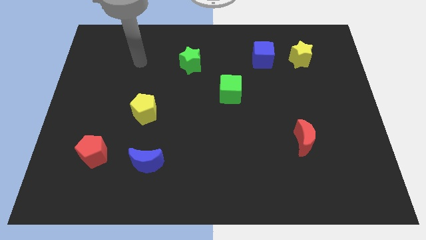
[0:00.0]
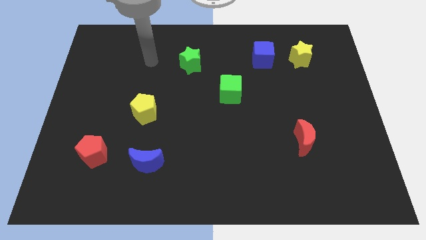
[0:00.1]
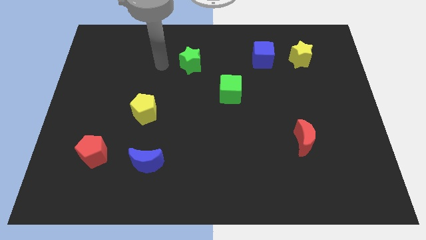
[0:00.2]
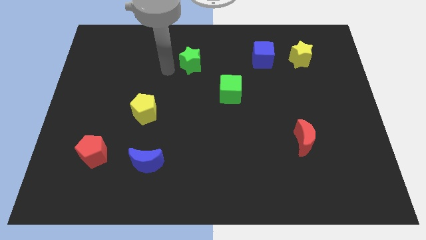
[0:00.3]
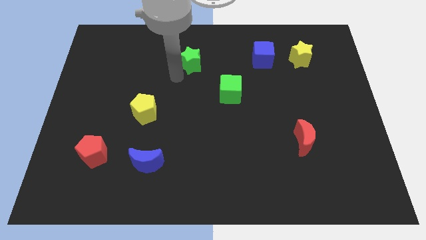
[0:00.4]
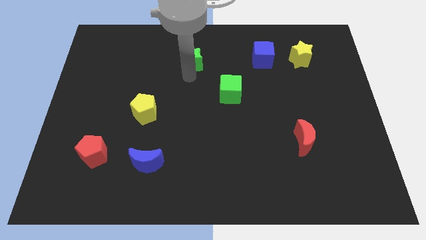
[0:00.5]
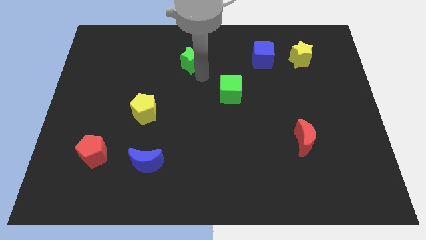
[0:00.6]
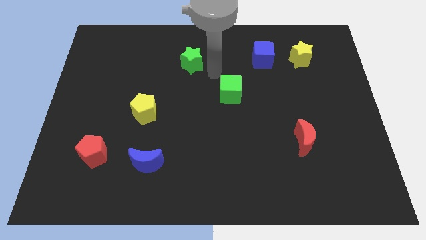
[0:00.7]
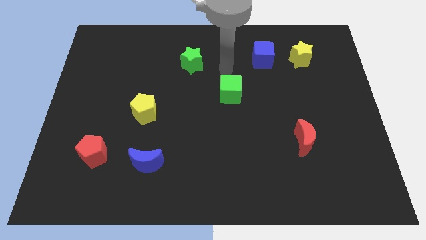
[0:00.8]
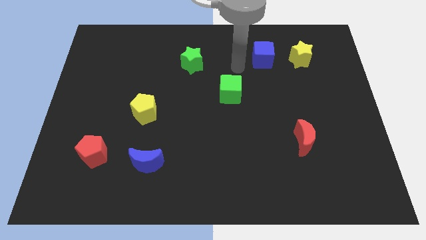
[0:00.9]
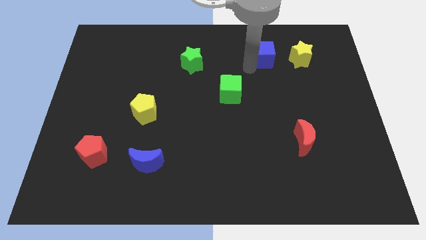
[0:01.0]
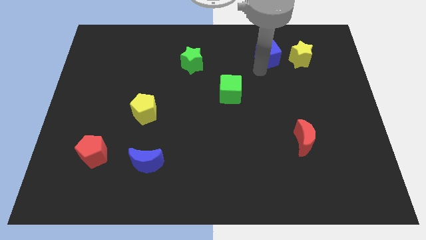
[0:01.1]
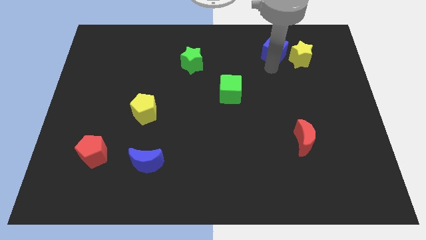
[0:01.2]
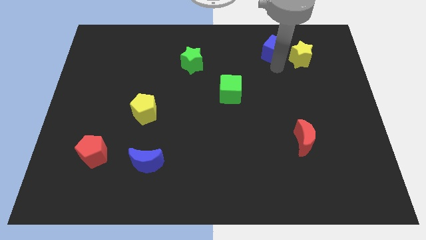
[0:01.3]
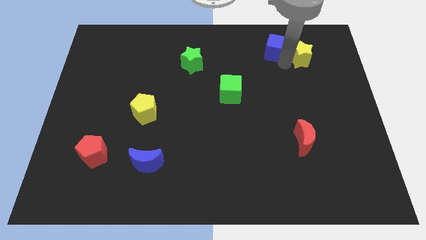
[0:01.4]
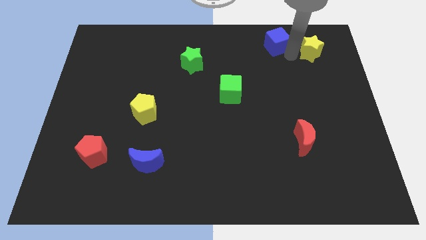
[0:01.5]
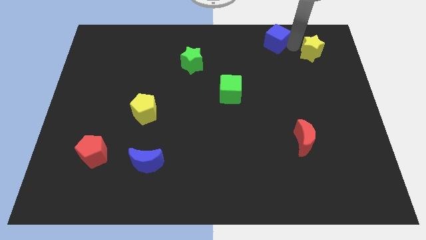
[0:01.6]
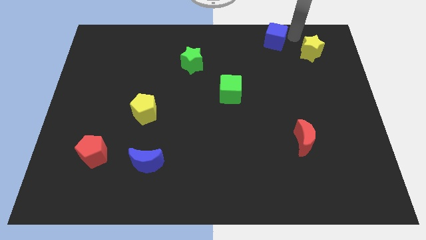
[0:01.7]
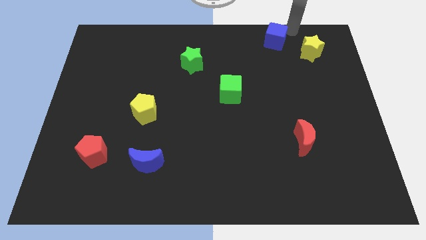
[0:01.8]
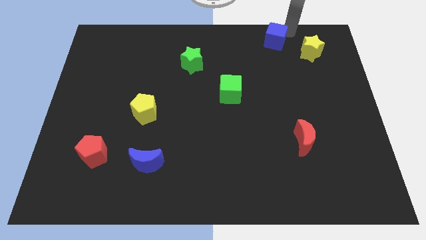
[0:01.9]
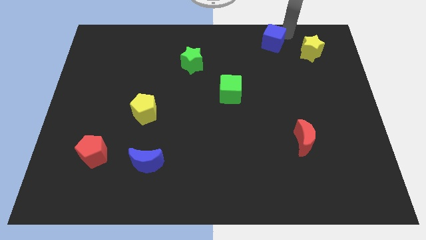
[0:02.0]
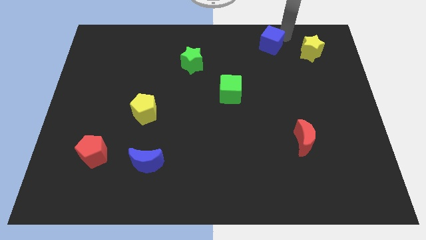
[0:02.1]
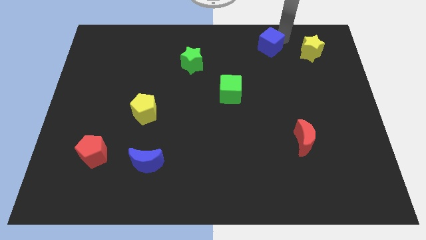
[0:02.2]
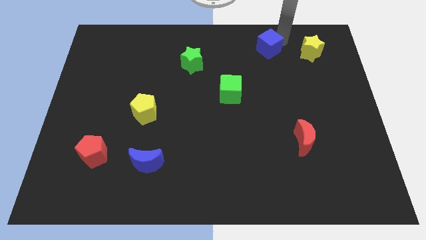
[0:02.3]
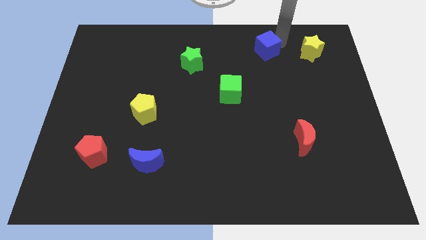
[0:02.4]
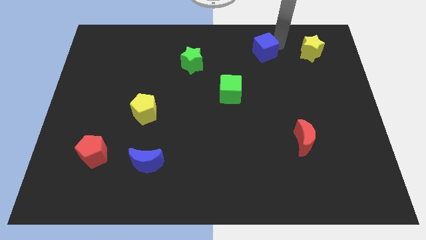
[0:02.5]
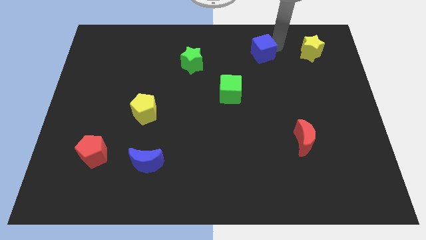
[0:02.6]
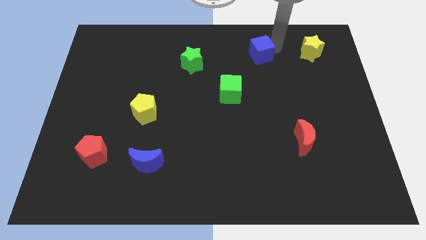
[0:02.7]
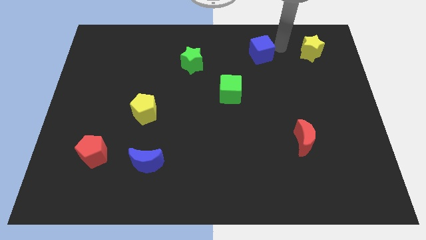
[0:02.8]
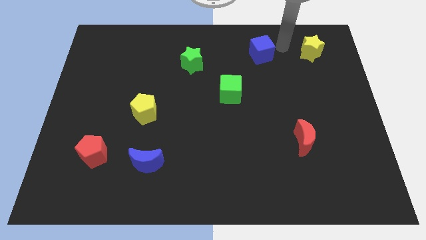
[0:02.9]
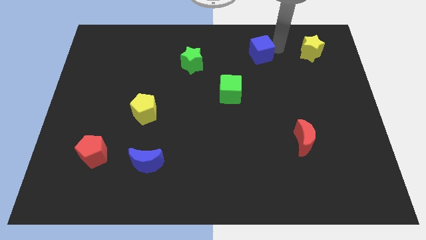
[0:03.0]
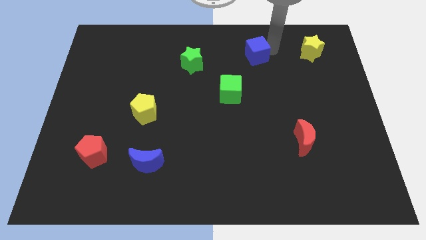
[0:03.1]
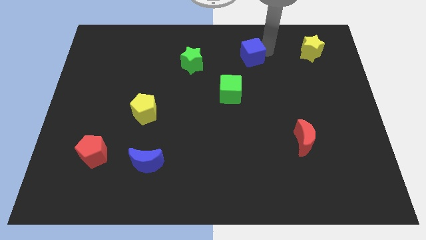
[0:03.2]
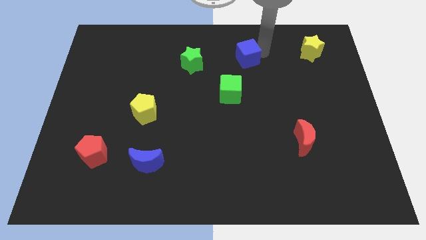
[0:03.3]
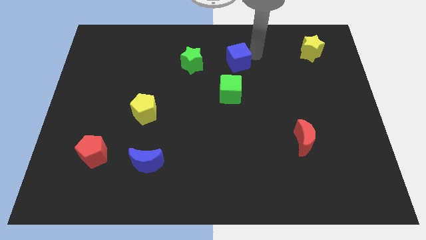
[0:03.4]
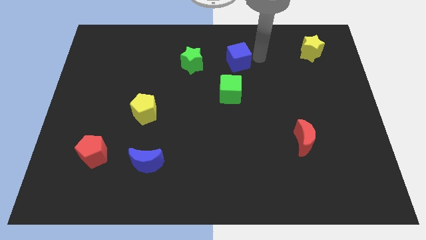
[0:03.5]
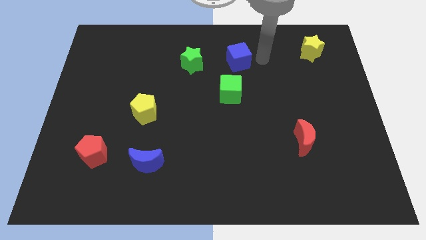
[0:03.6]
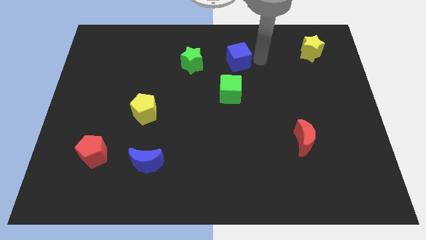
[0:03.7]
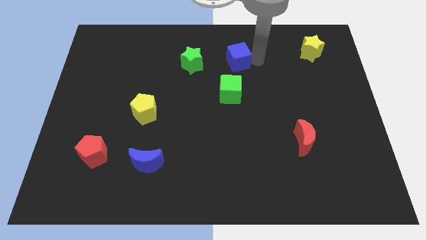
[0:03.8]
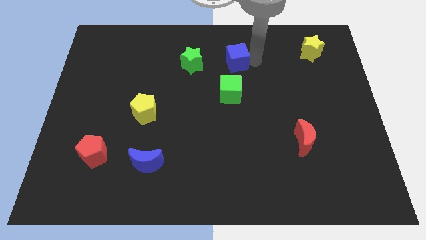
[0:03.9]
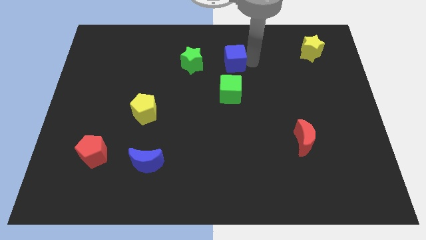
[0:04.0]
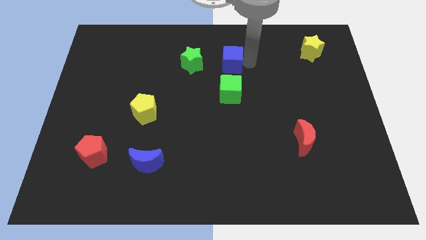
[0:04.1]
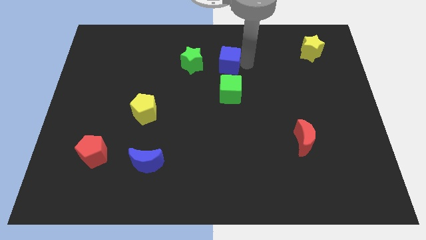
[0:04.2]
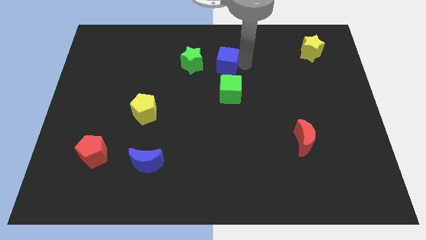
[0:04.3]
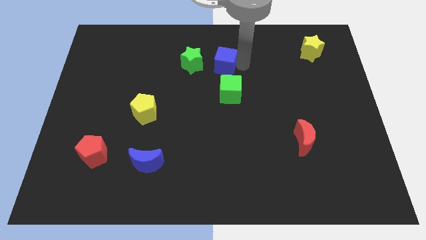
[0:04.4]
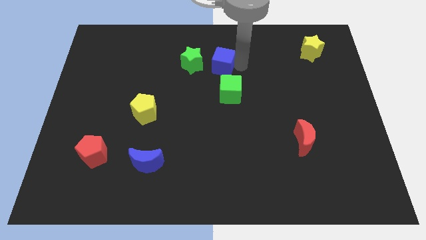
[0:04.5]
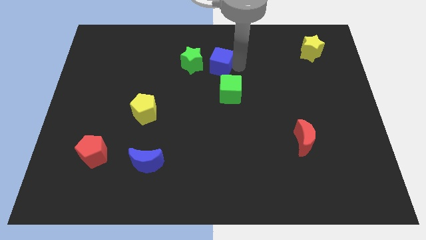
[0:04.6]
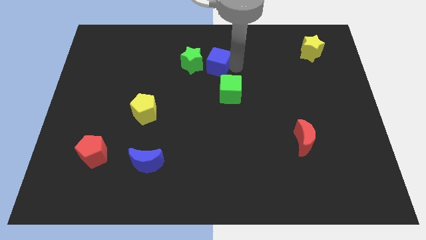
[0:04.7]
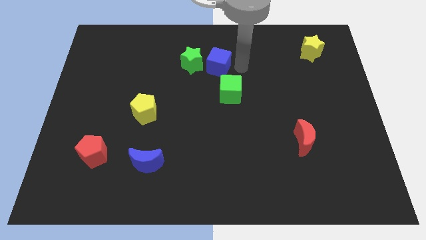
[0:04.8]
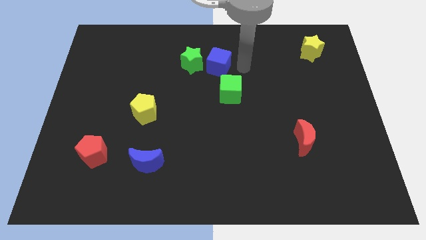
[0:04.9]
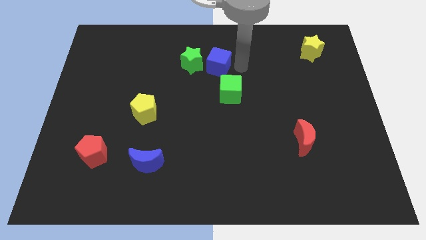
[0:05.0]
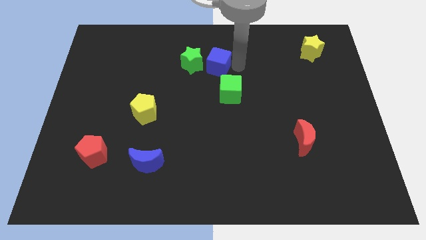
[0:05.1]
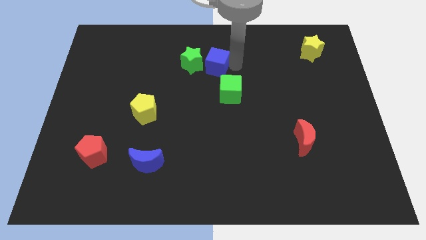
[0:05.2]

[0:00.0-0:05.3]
push the blue cube towards the green star

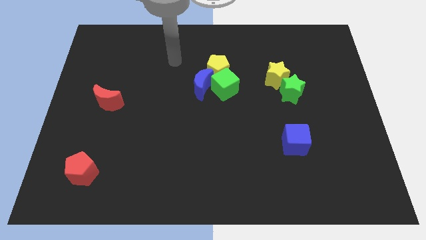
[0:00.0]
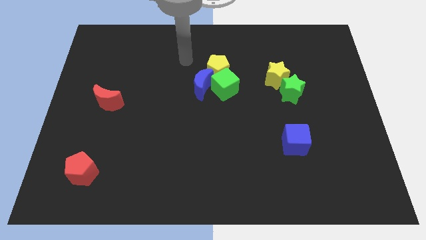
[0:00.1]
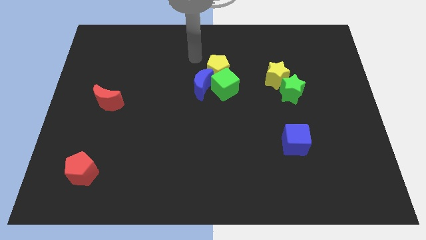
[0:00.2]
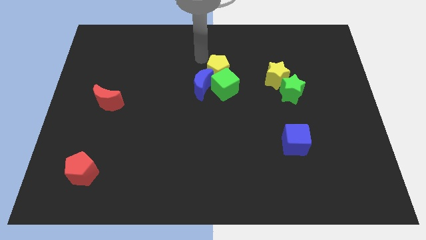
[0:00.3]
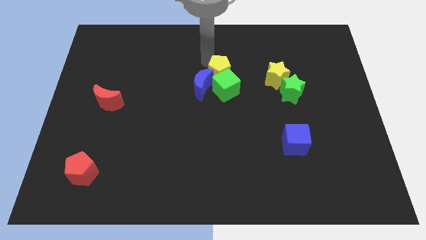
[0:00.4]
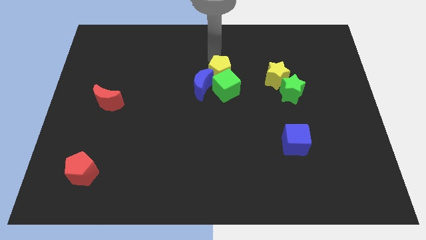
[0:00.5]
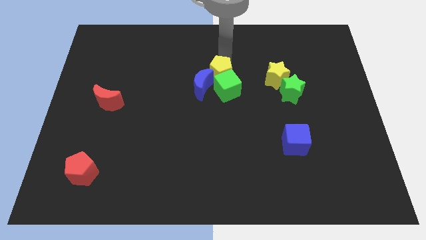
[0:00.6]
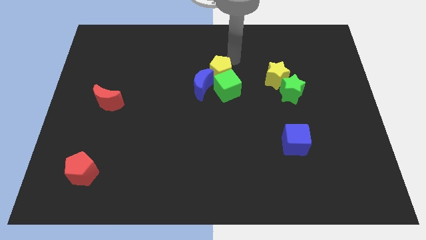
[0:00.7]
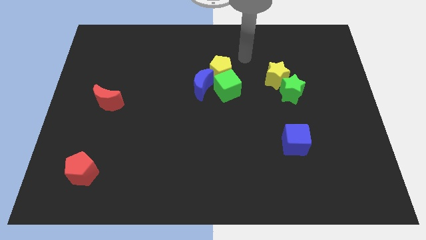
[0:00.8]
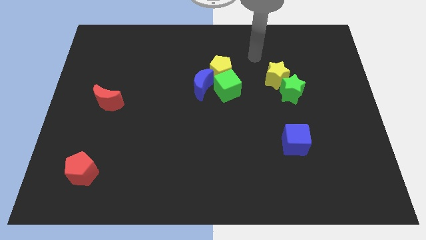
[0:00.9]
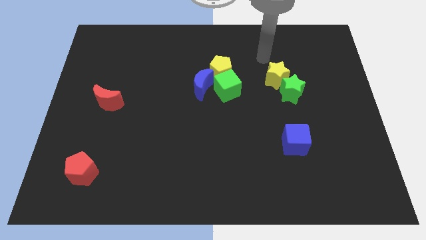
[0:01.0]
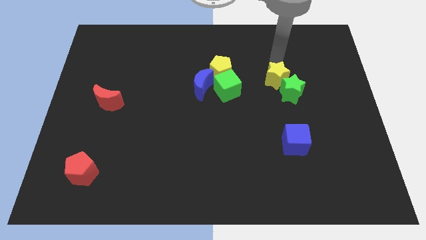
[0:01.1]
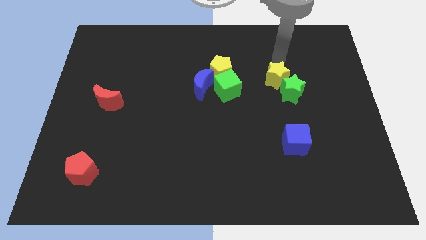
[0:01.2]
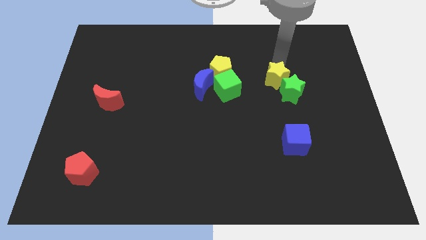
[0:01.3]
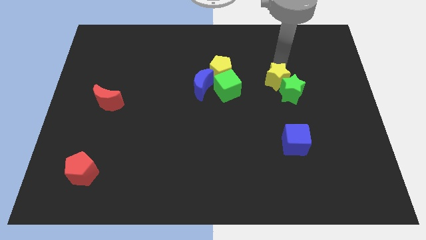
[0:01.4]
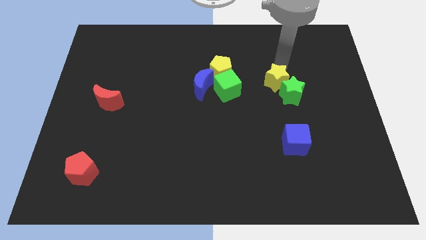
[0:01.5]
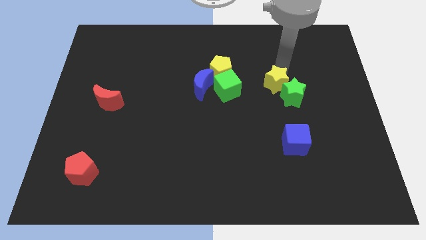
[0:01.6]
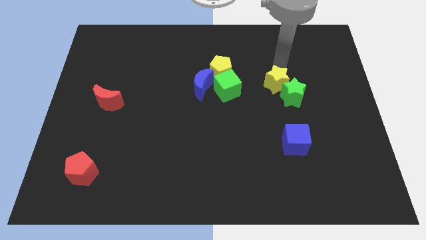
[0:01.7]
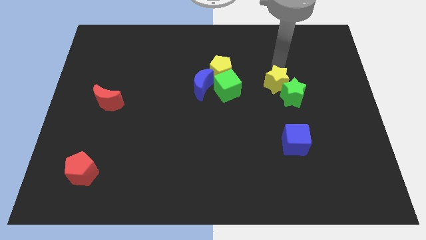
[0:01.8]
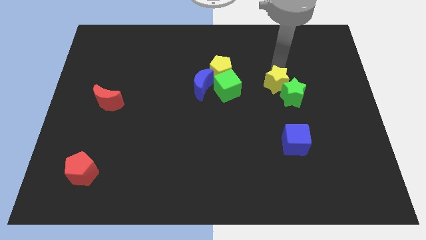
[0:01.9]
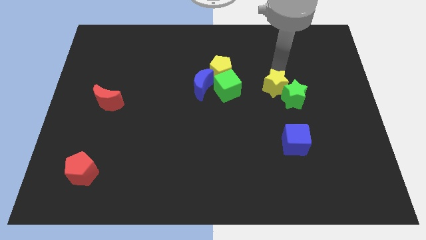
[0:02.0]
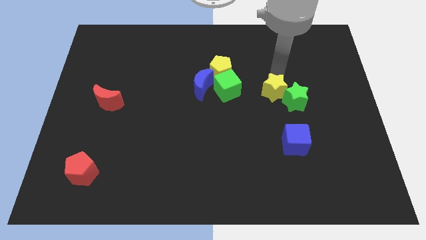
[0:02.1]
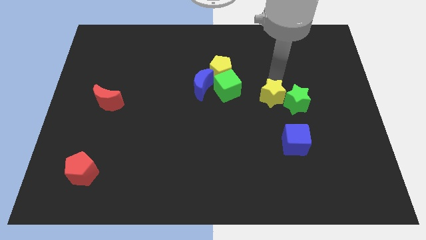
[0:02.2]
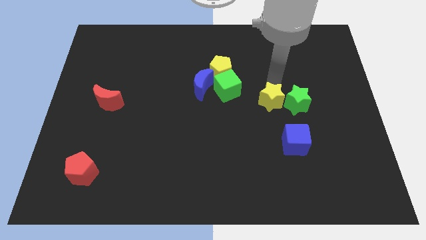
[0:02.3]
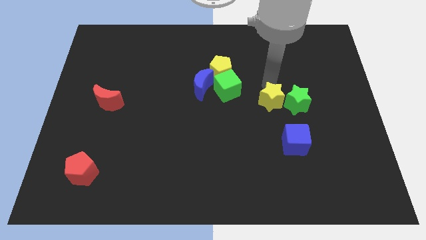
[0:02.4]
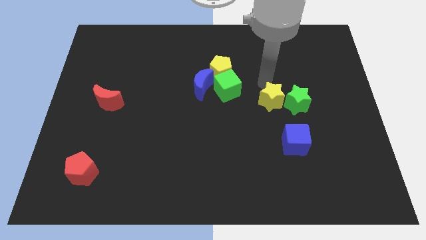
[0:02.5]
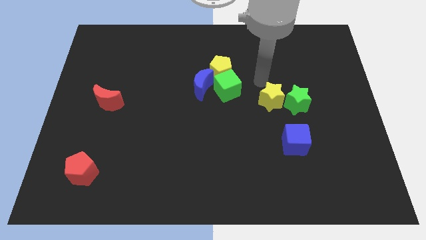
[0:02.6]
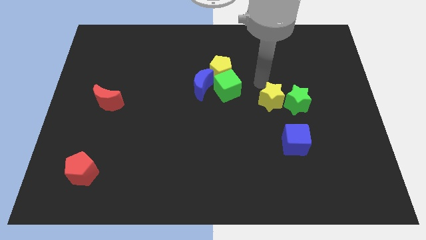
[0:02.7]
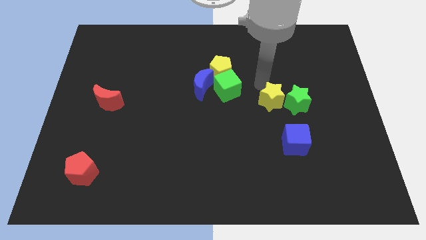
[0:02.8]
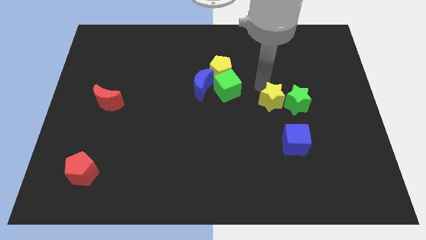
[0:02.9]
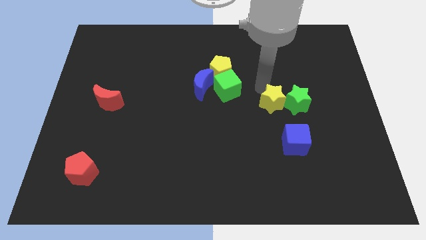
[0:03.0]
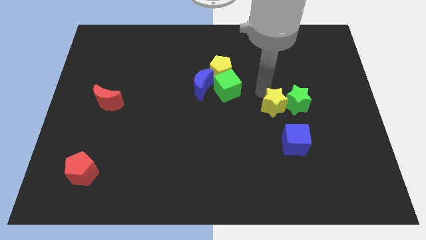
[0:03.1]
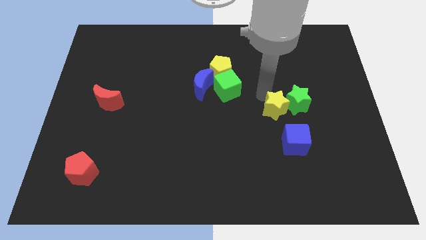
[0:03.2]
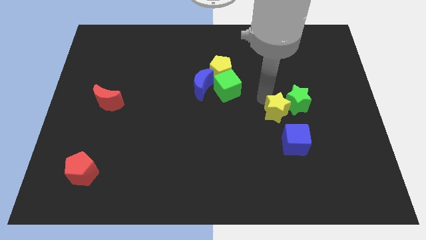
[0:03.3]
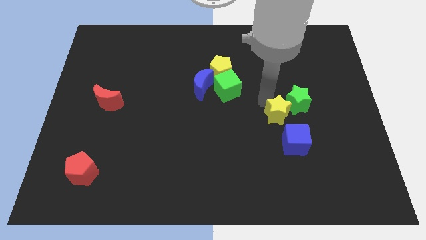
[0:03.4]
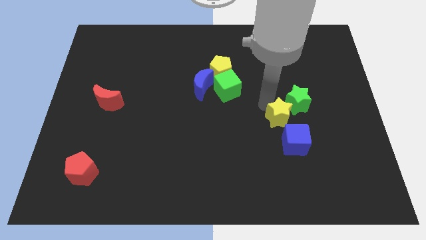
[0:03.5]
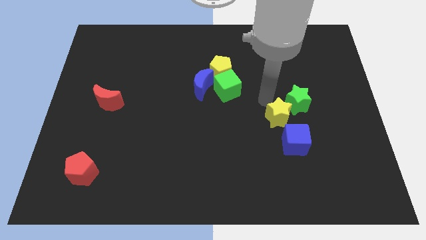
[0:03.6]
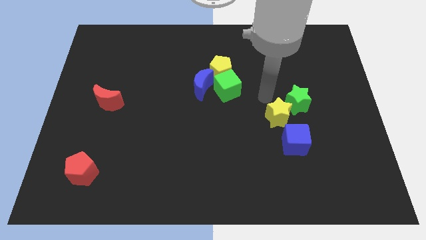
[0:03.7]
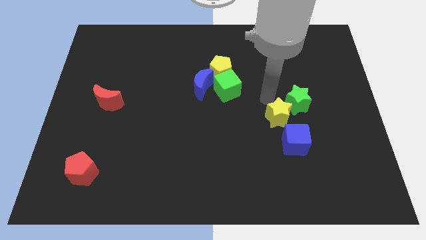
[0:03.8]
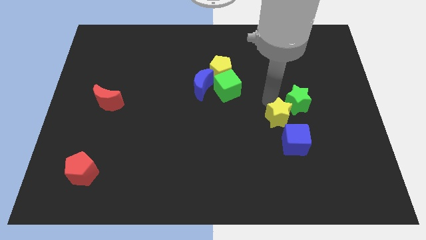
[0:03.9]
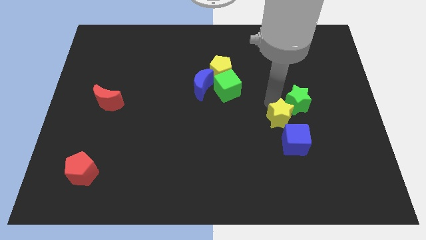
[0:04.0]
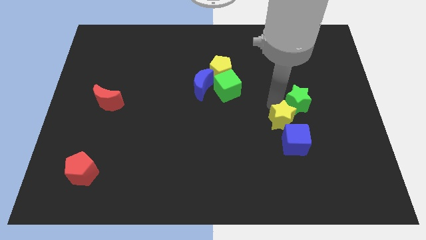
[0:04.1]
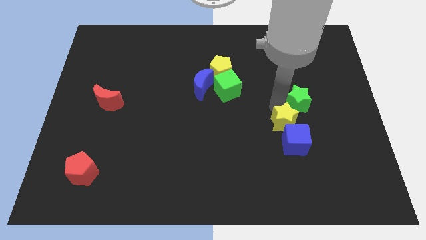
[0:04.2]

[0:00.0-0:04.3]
put the yellow star to the blue cube
